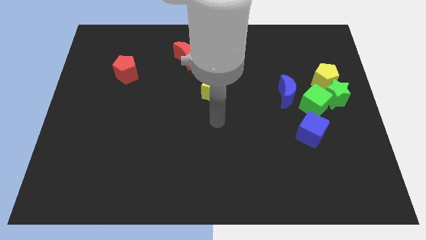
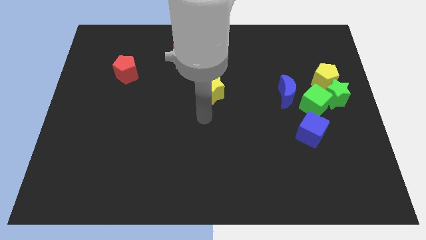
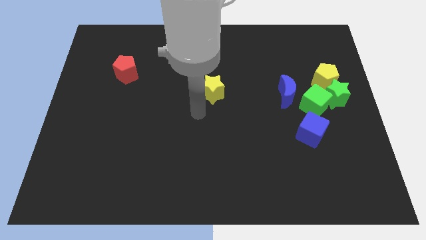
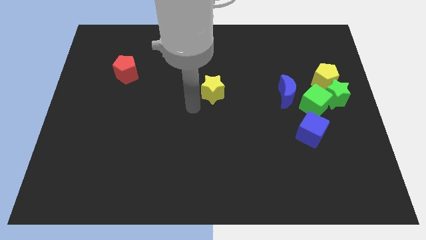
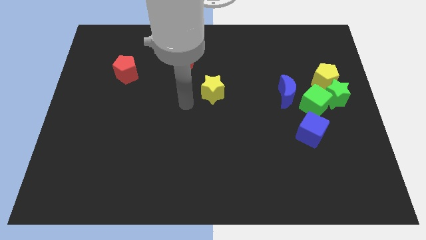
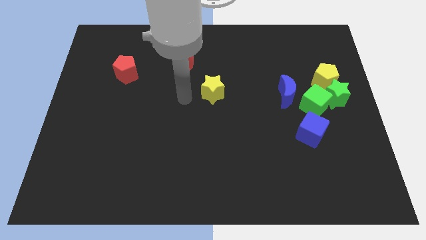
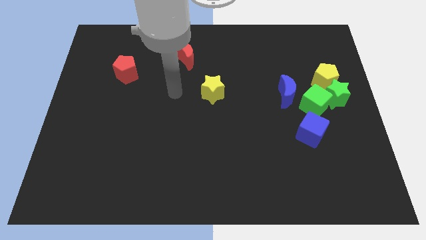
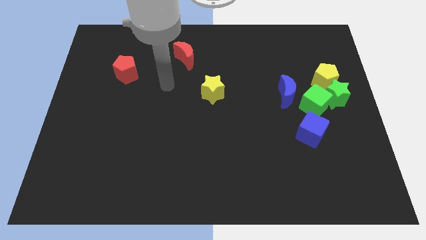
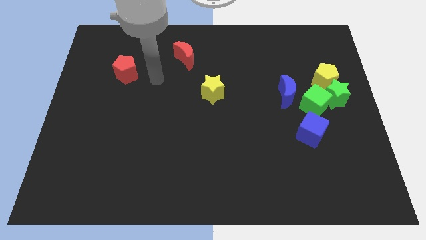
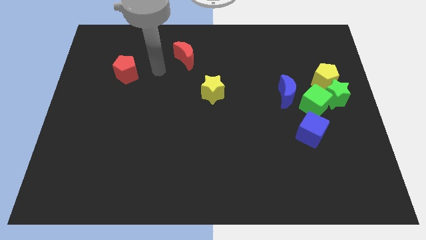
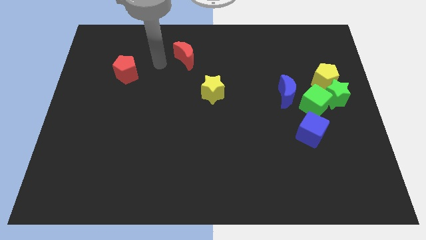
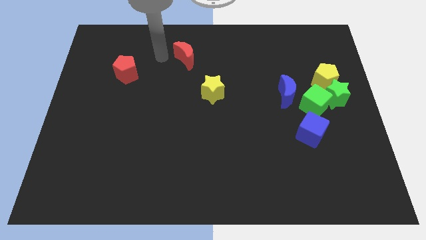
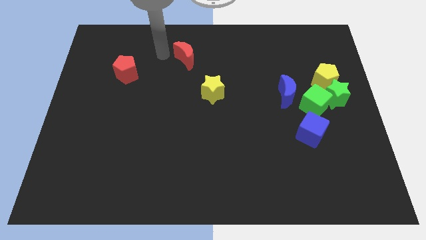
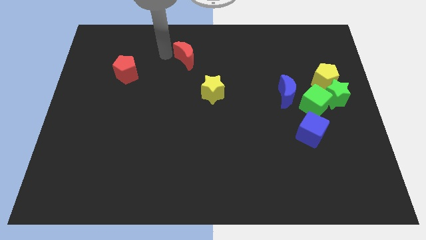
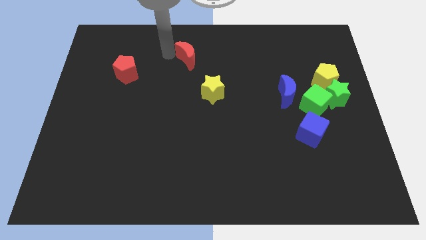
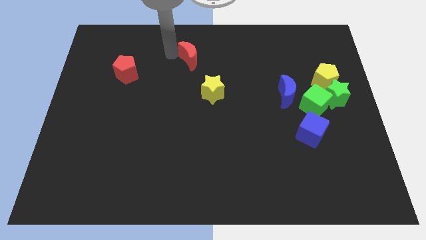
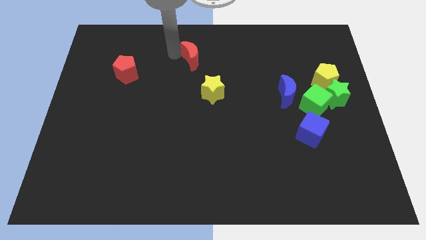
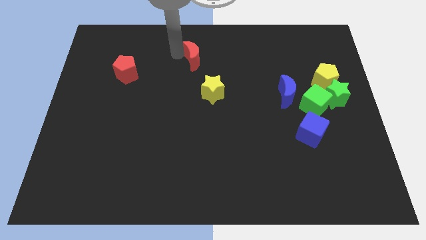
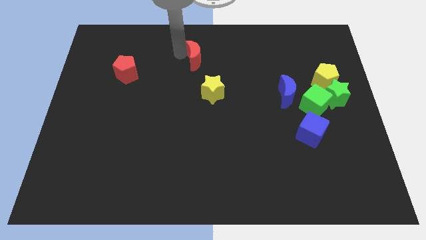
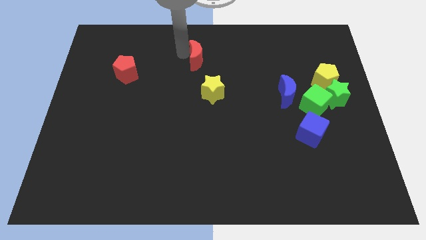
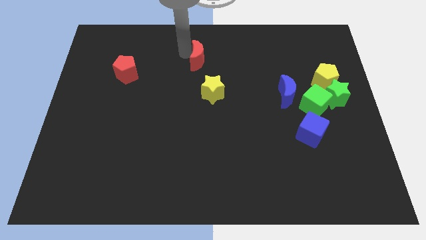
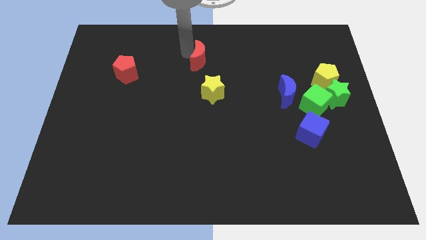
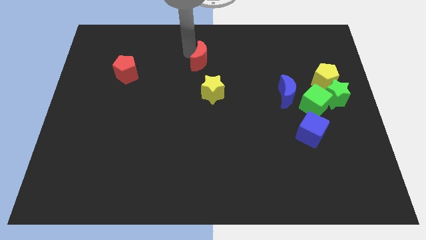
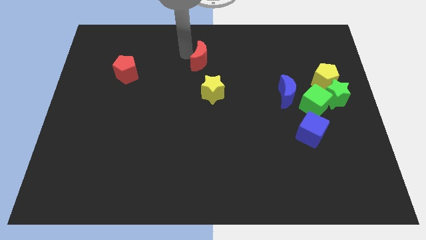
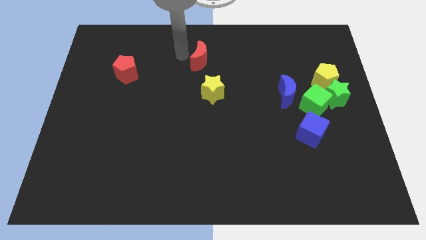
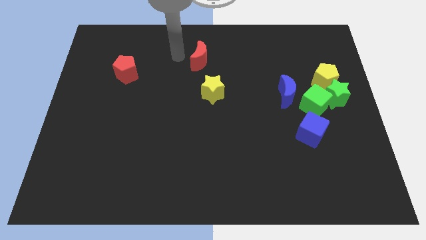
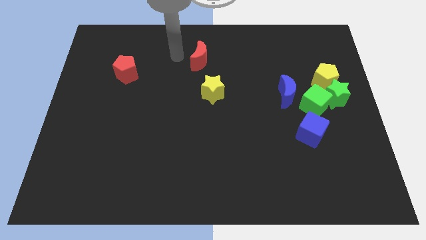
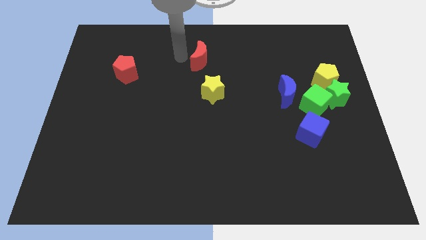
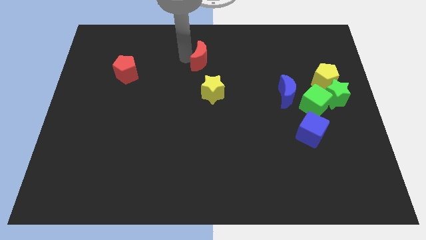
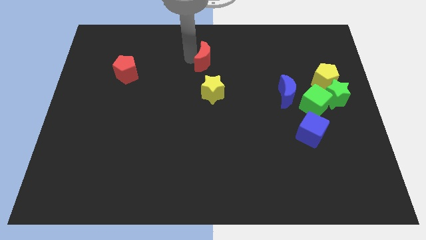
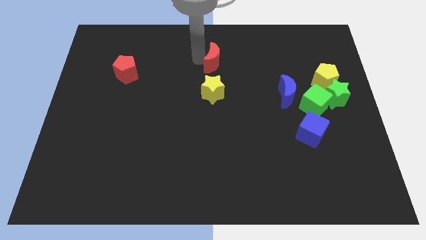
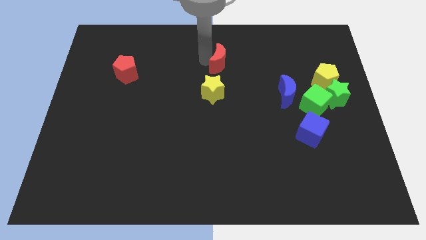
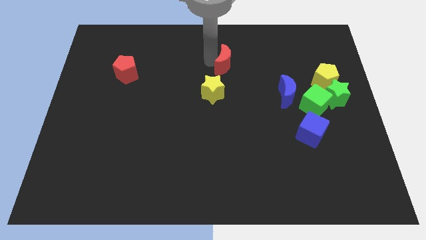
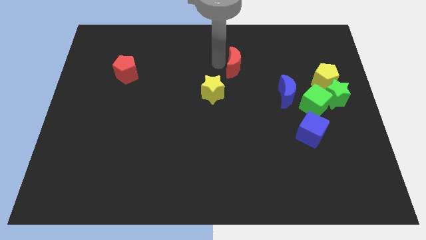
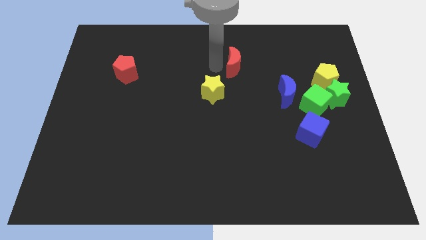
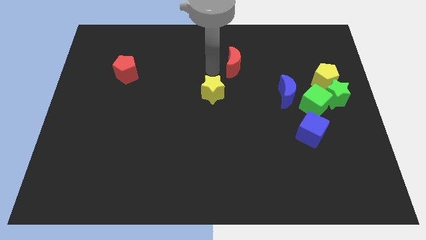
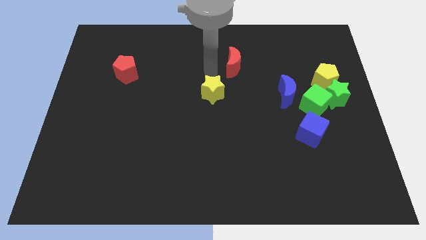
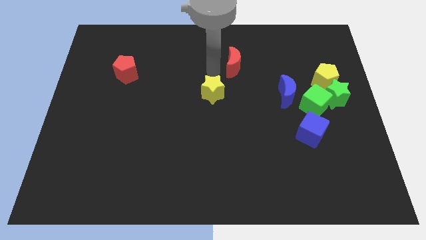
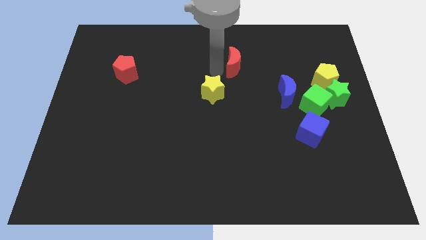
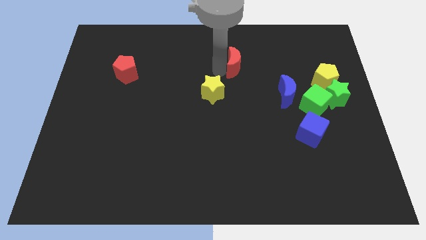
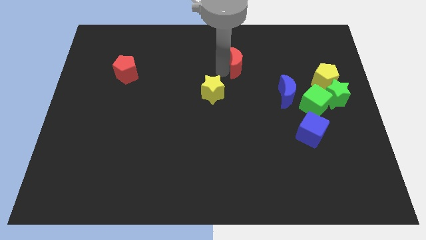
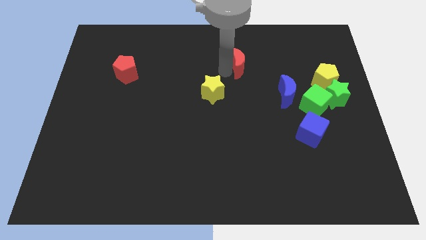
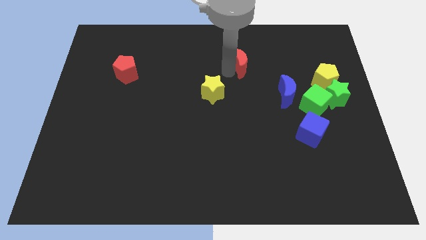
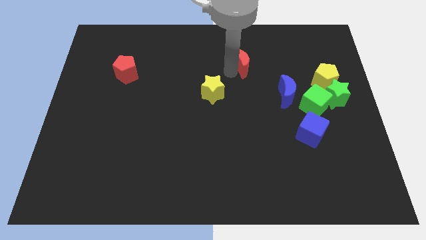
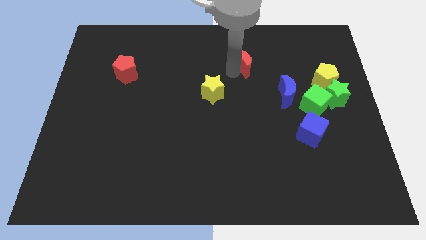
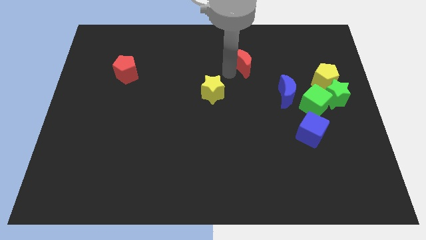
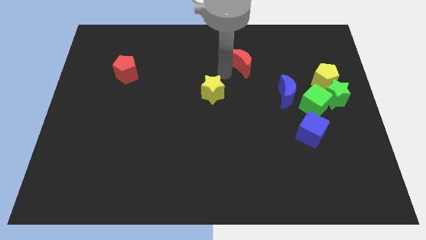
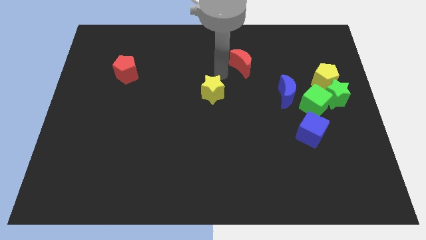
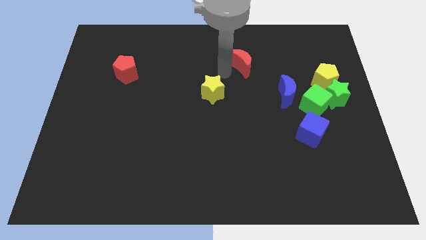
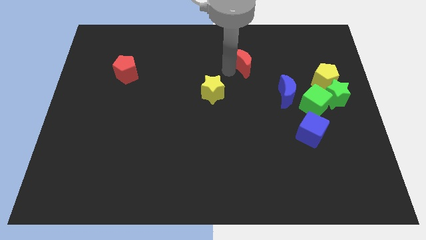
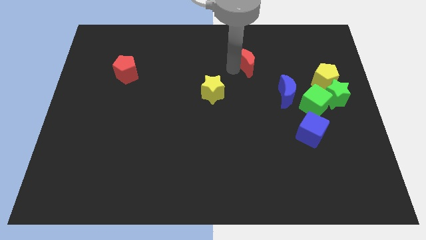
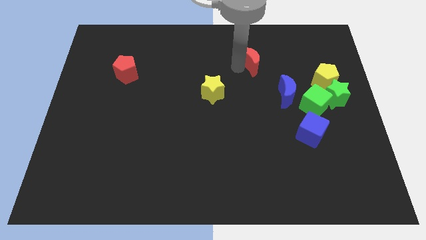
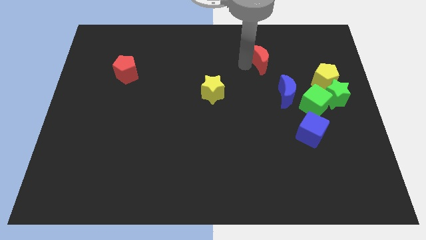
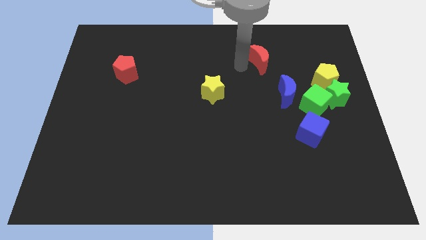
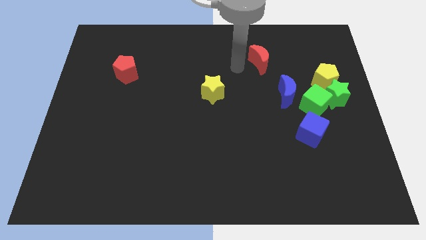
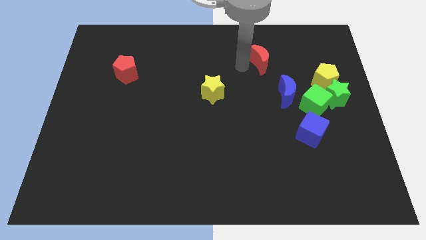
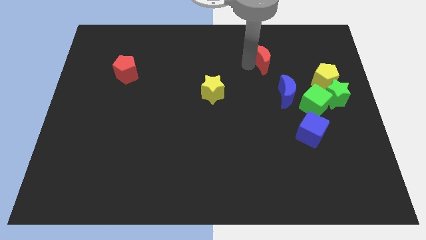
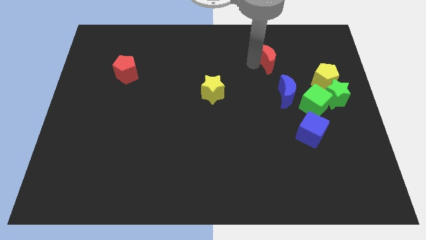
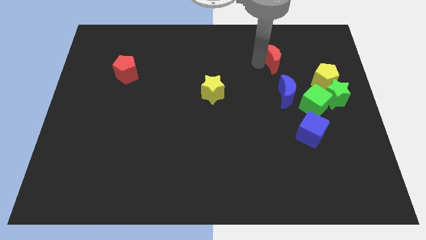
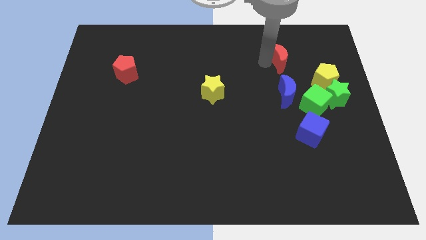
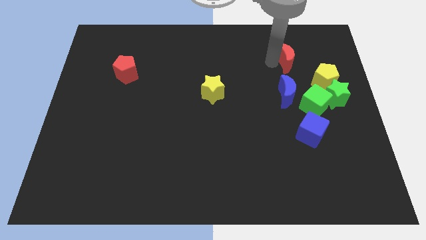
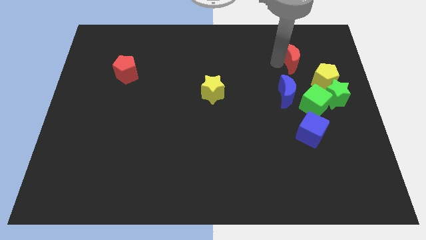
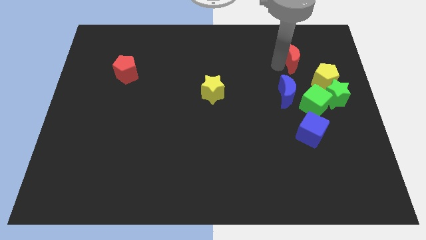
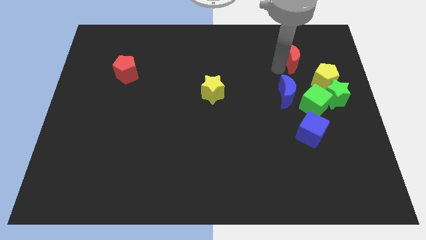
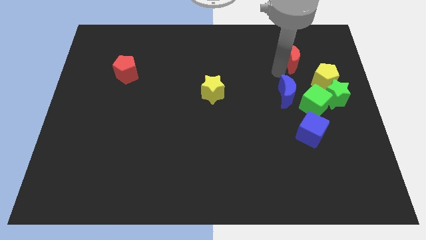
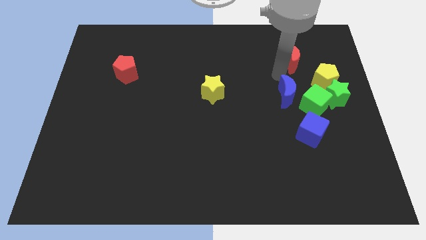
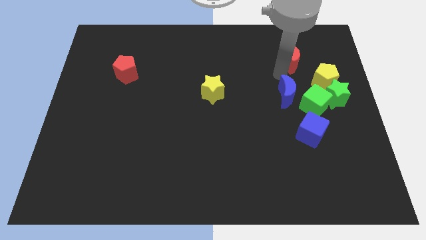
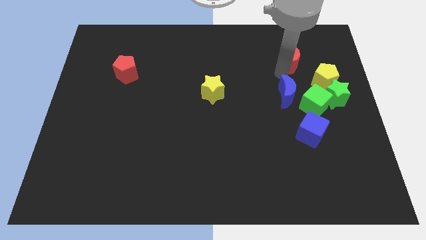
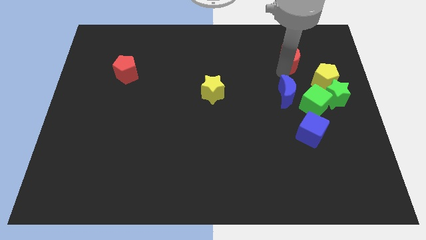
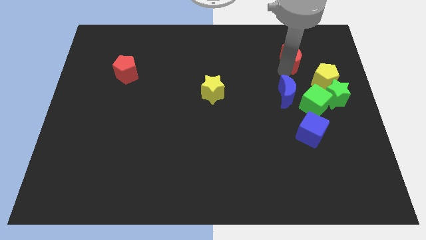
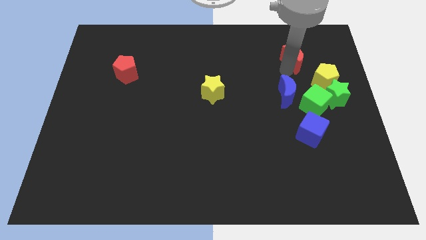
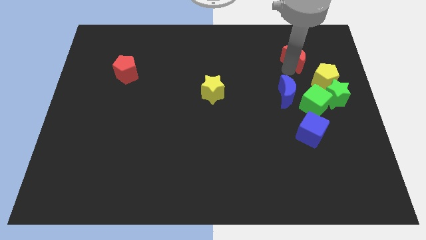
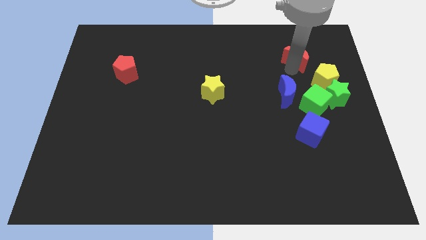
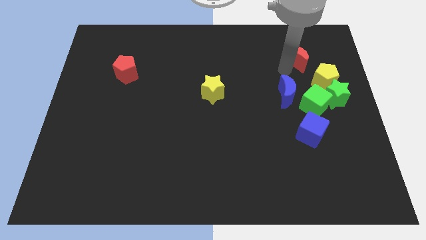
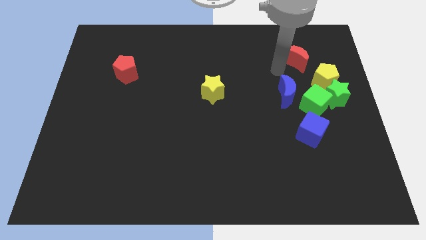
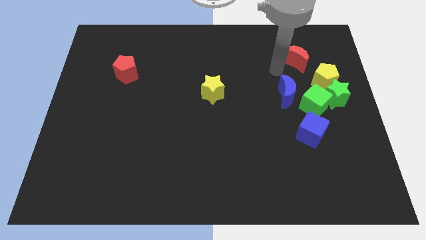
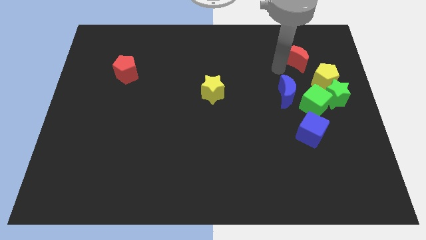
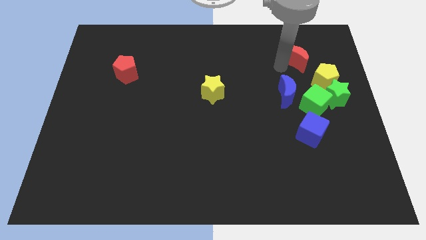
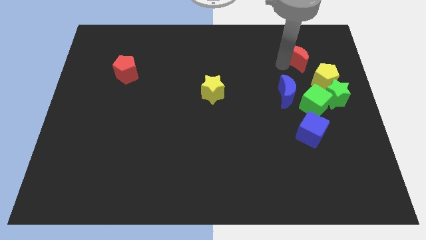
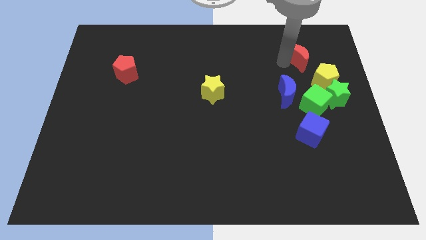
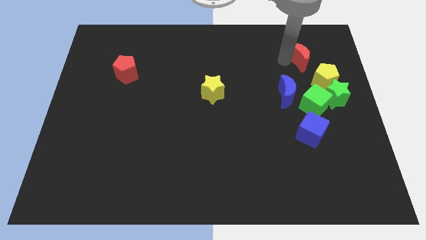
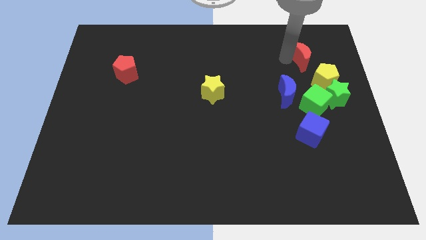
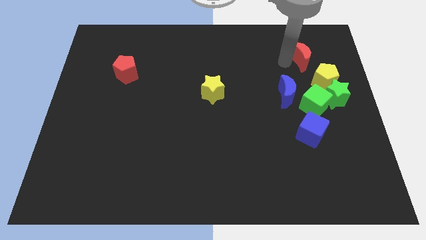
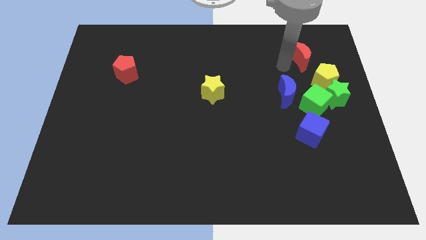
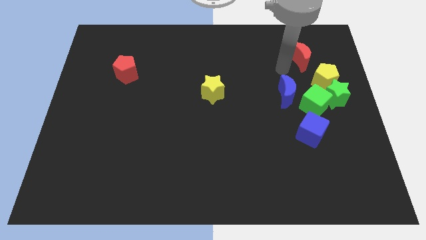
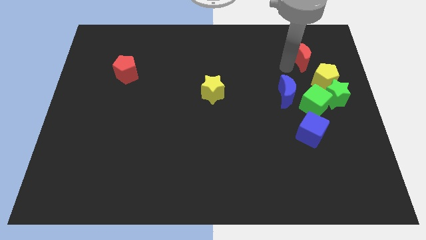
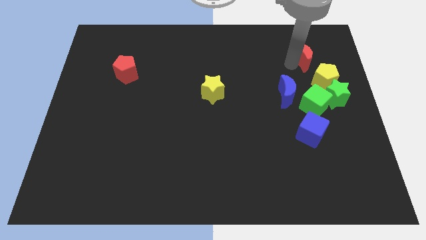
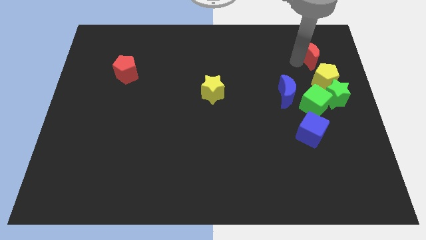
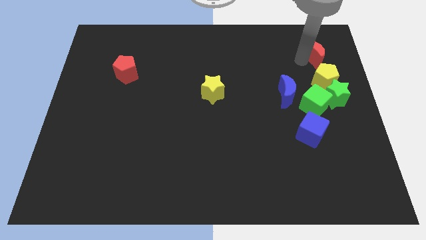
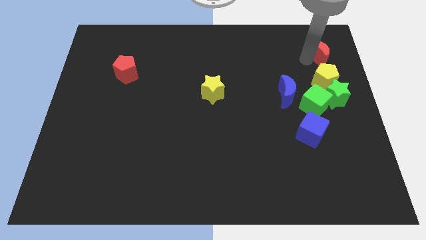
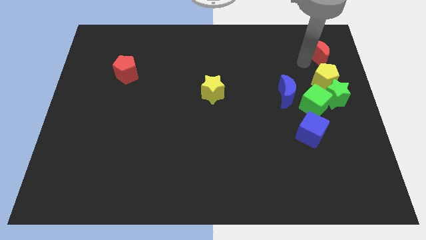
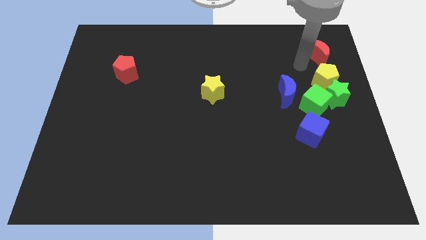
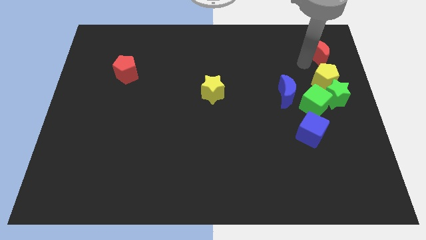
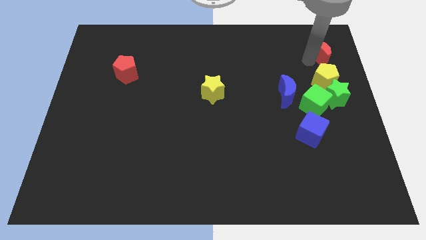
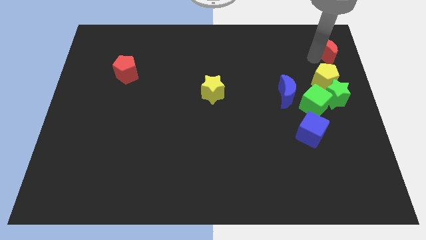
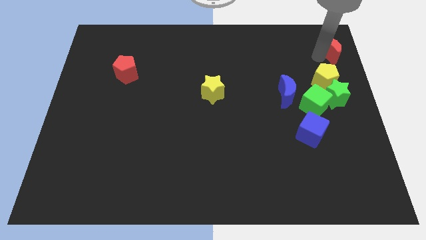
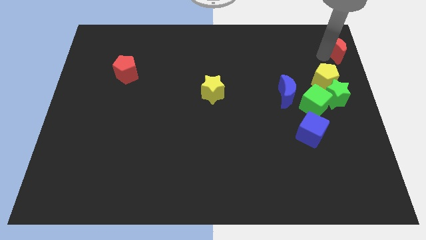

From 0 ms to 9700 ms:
push the red moon to the top right of the board
